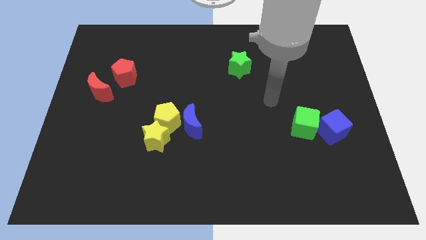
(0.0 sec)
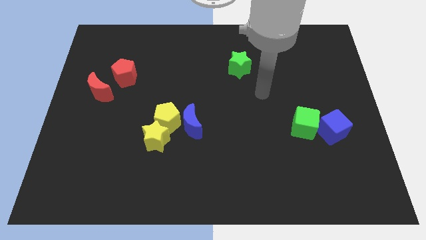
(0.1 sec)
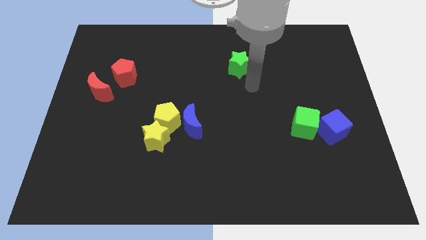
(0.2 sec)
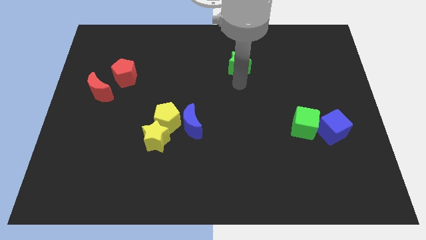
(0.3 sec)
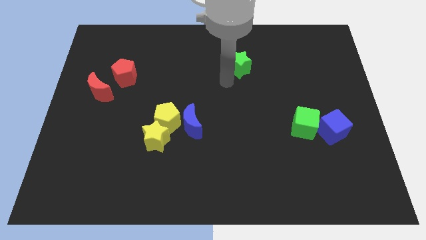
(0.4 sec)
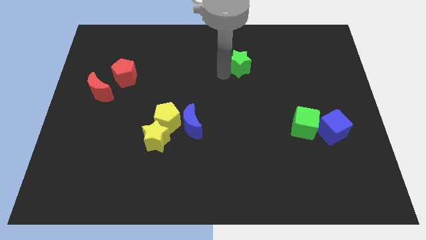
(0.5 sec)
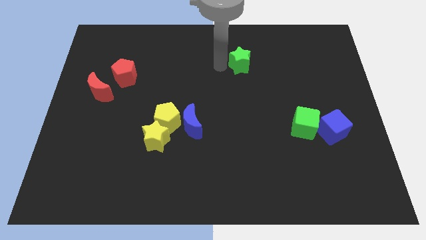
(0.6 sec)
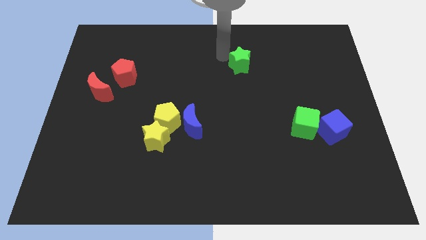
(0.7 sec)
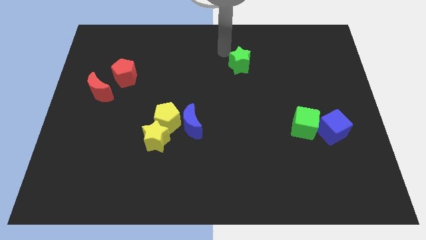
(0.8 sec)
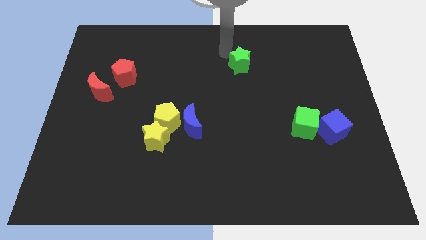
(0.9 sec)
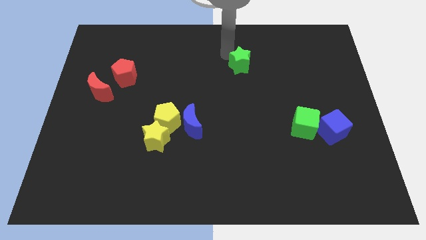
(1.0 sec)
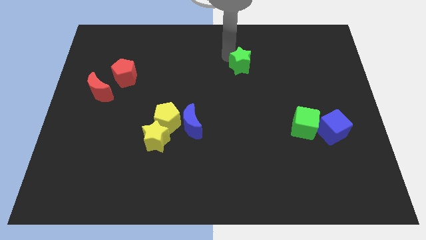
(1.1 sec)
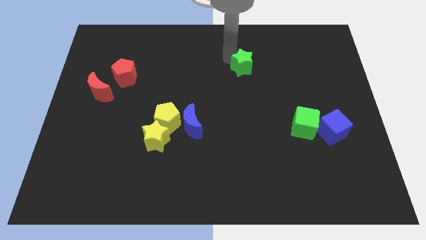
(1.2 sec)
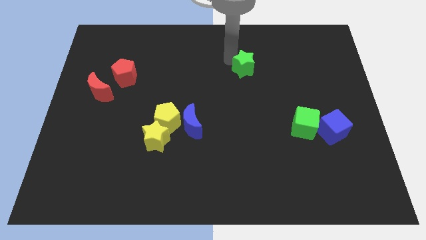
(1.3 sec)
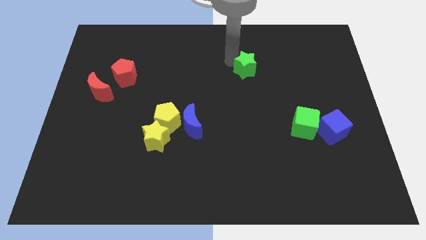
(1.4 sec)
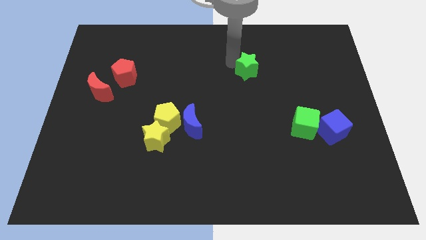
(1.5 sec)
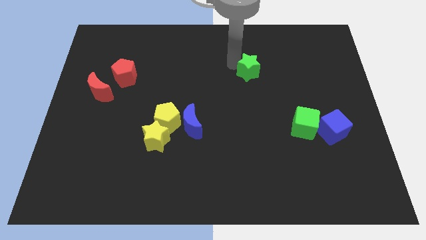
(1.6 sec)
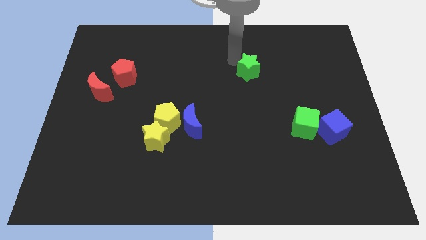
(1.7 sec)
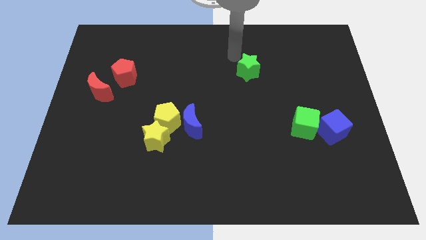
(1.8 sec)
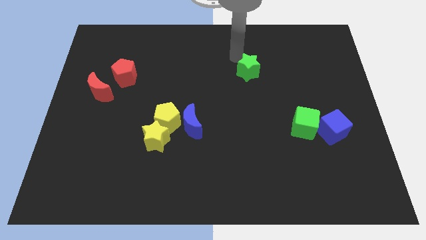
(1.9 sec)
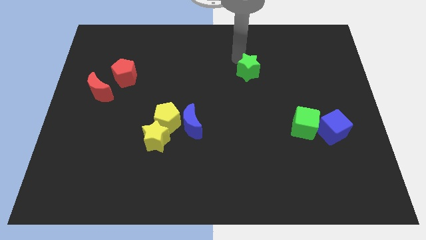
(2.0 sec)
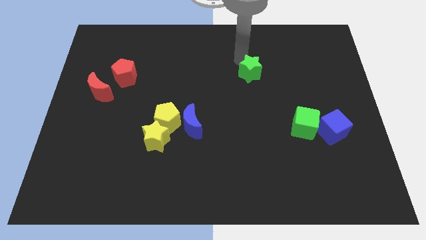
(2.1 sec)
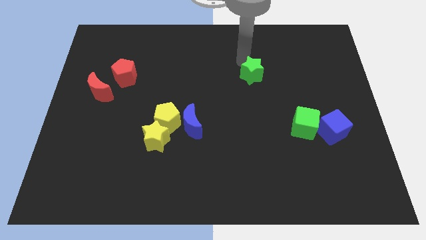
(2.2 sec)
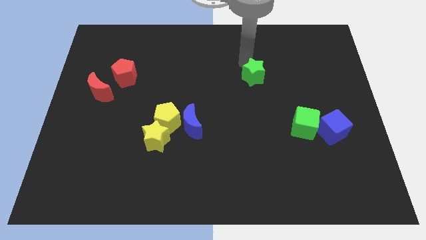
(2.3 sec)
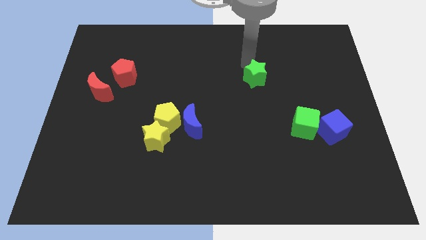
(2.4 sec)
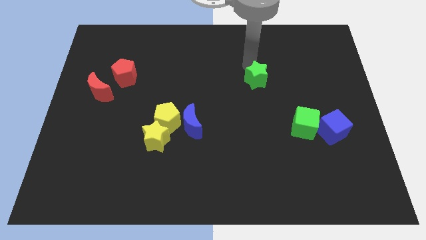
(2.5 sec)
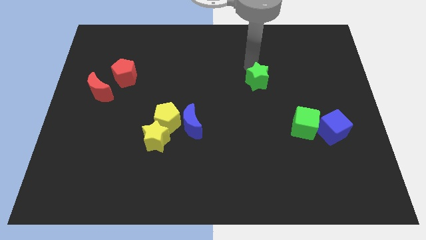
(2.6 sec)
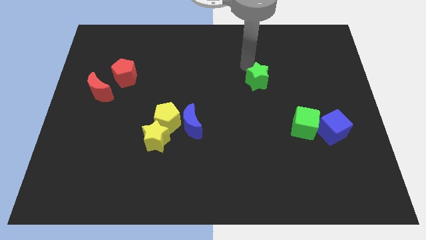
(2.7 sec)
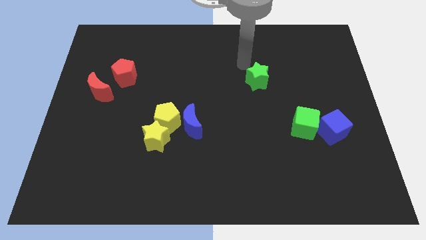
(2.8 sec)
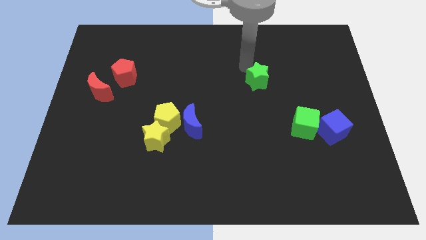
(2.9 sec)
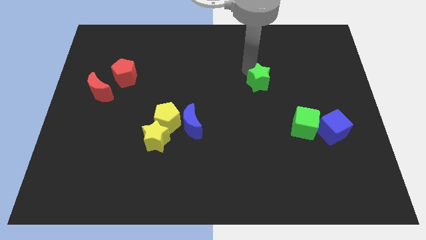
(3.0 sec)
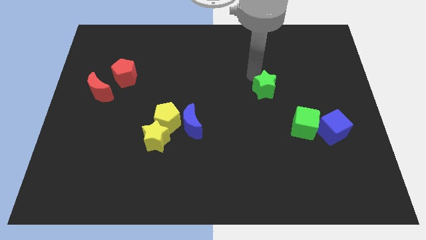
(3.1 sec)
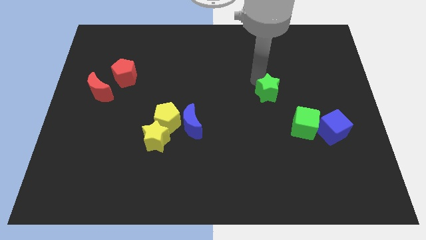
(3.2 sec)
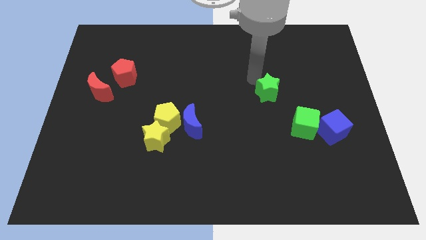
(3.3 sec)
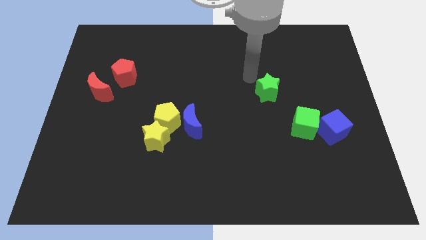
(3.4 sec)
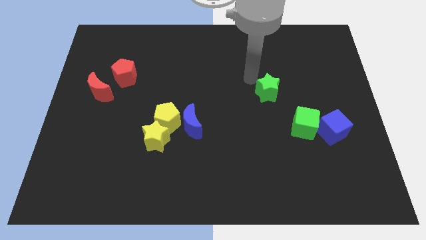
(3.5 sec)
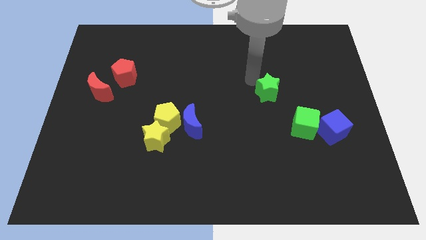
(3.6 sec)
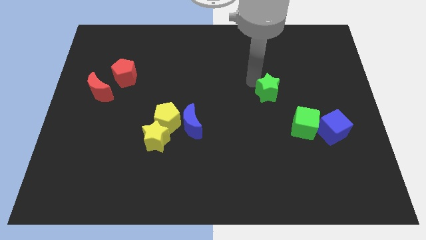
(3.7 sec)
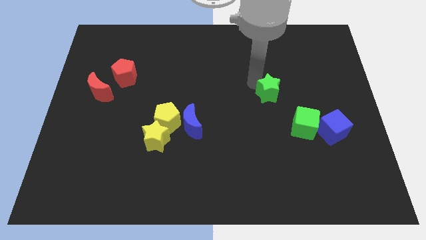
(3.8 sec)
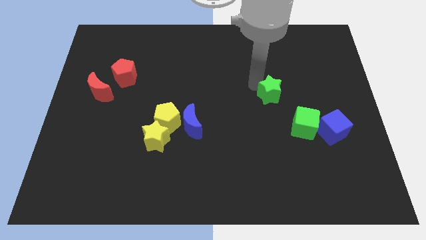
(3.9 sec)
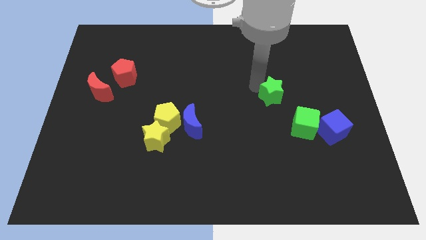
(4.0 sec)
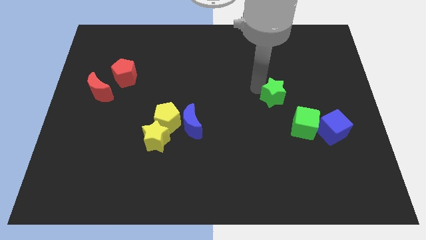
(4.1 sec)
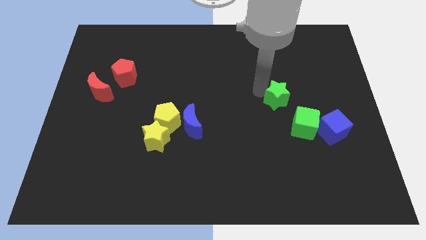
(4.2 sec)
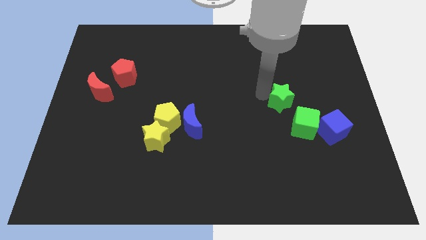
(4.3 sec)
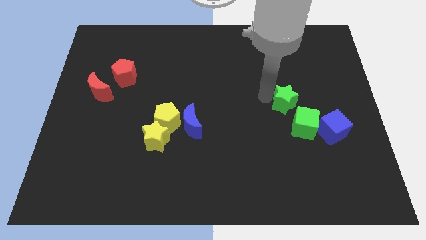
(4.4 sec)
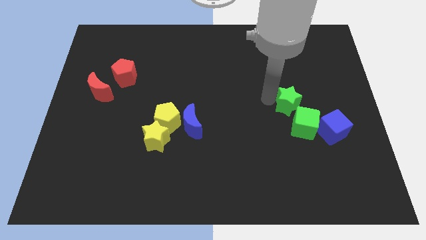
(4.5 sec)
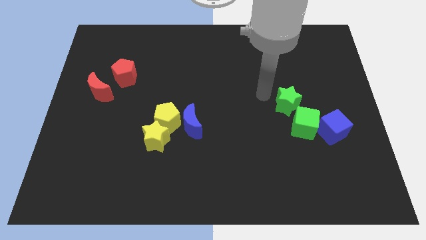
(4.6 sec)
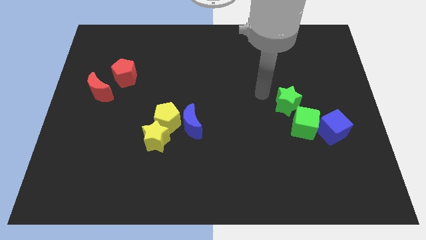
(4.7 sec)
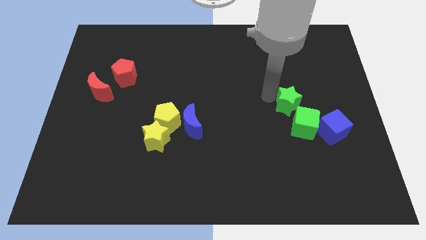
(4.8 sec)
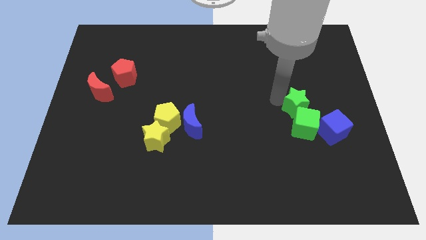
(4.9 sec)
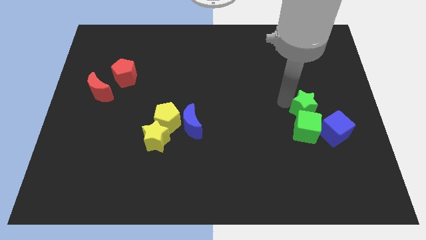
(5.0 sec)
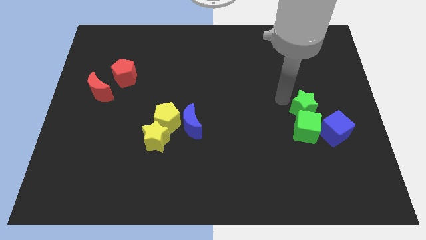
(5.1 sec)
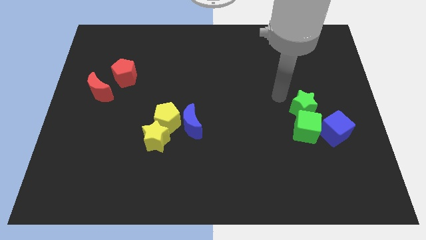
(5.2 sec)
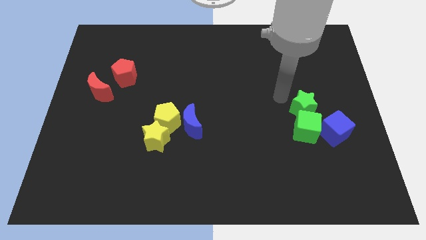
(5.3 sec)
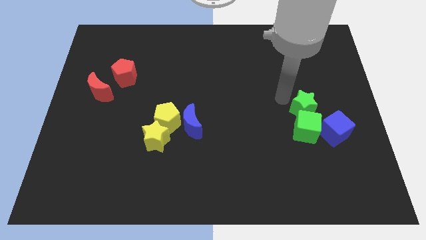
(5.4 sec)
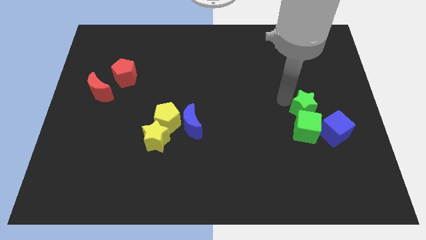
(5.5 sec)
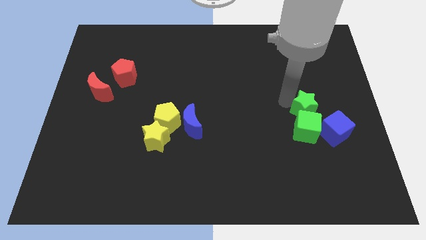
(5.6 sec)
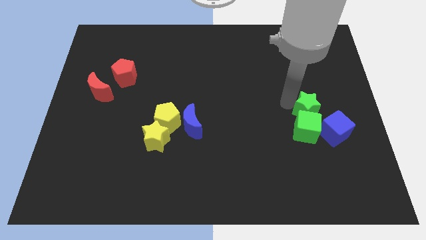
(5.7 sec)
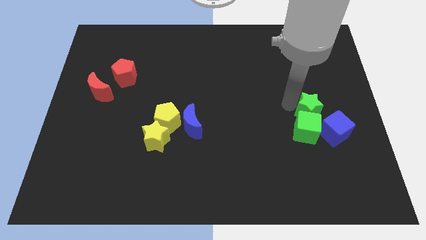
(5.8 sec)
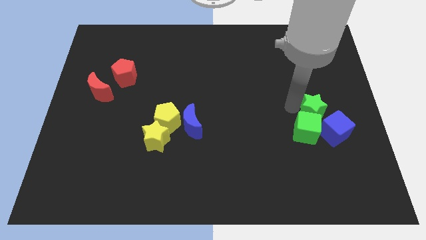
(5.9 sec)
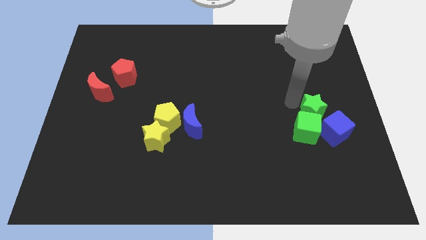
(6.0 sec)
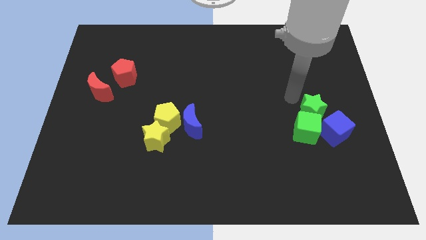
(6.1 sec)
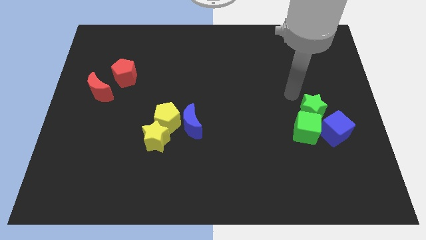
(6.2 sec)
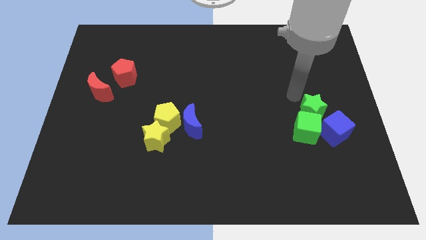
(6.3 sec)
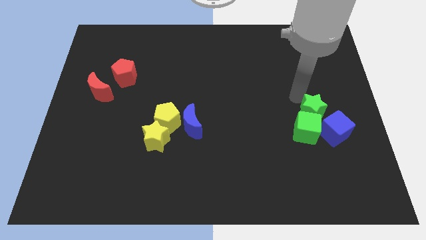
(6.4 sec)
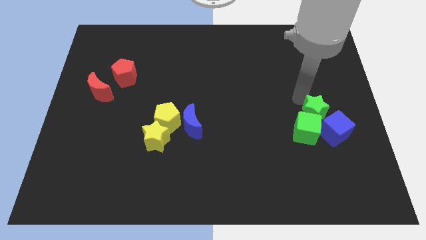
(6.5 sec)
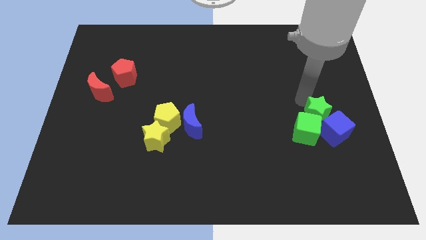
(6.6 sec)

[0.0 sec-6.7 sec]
slide the green star close to the blue cube
